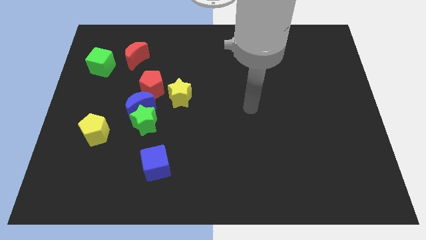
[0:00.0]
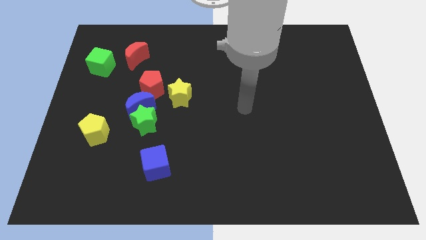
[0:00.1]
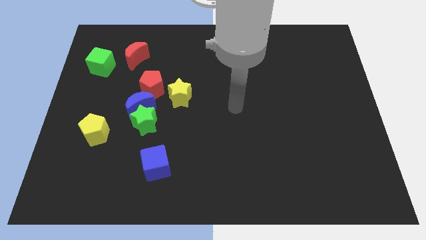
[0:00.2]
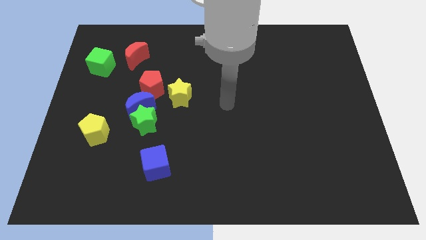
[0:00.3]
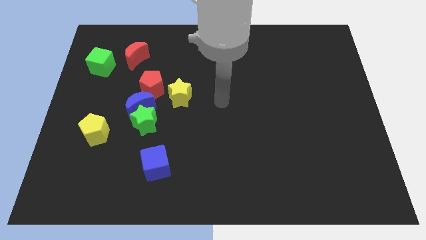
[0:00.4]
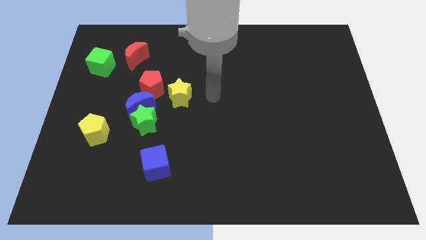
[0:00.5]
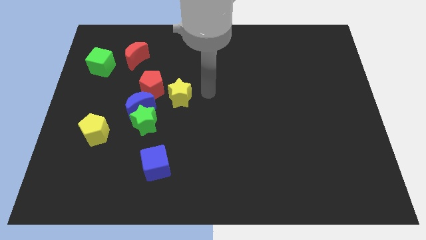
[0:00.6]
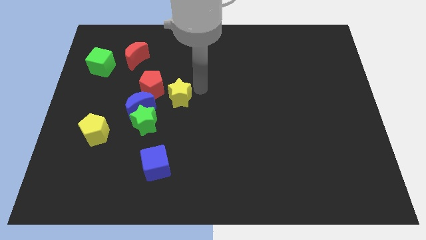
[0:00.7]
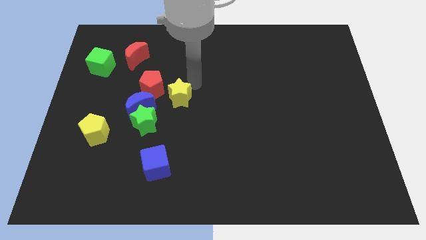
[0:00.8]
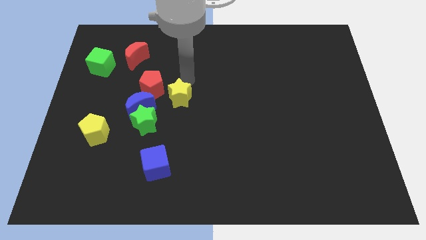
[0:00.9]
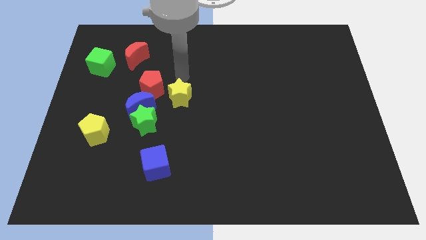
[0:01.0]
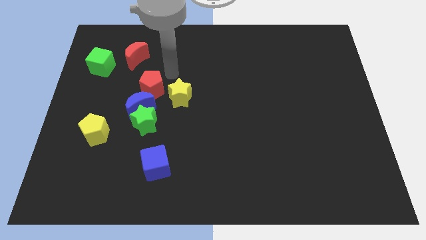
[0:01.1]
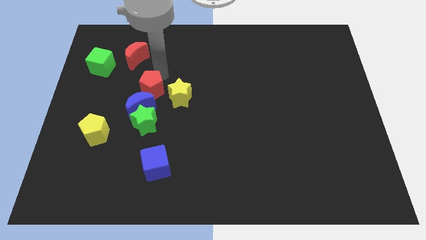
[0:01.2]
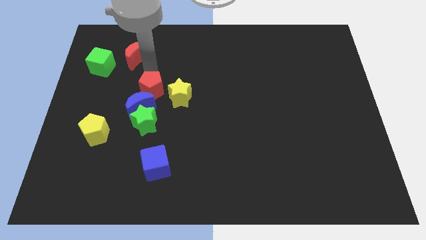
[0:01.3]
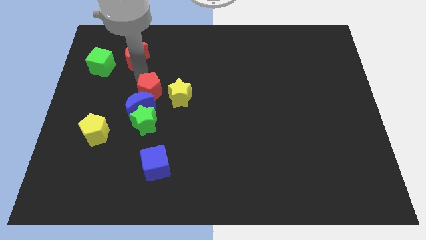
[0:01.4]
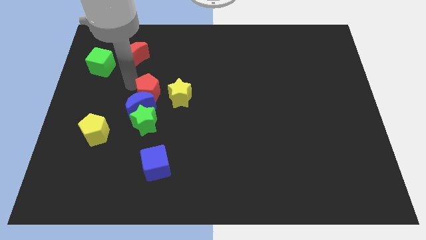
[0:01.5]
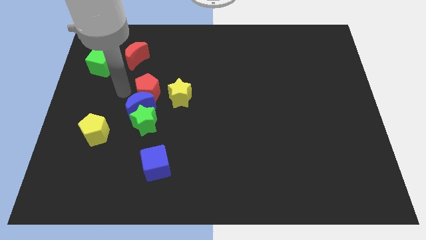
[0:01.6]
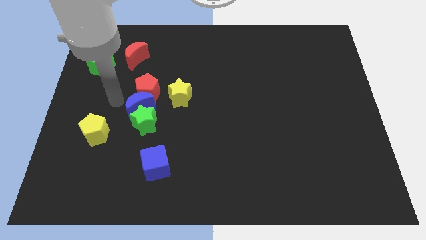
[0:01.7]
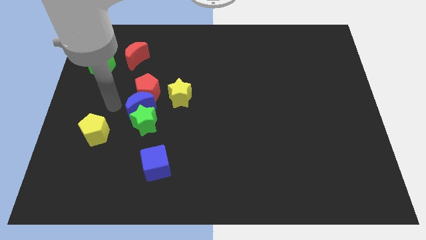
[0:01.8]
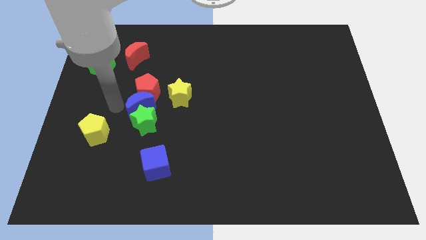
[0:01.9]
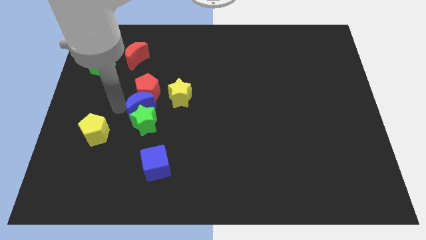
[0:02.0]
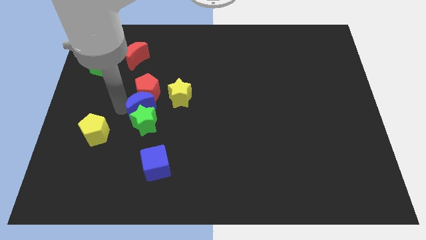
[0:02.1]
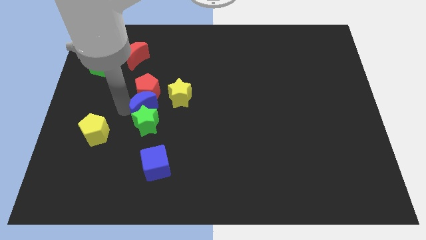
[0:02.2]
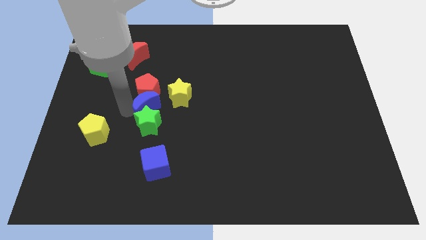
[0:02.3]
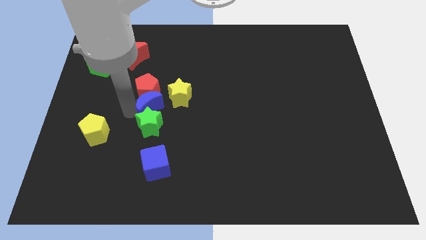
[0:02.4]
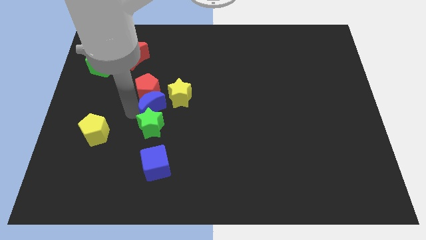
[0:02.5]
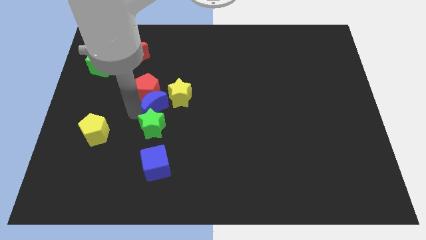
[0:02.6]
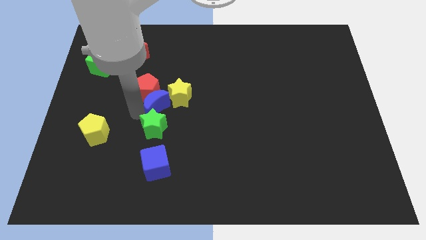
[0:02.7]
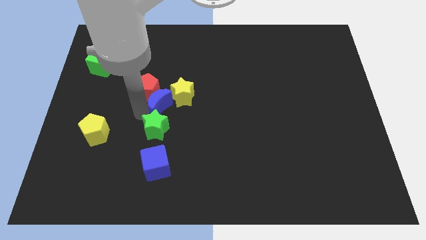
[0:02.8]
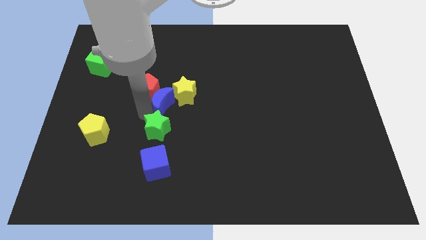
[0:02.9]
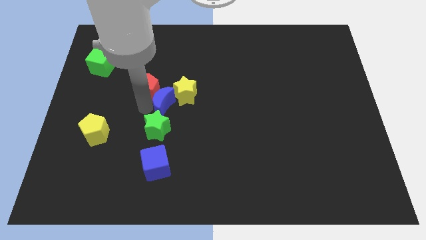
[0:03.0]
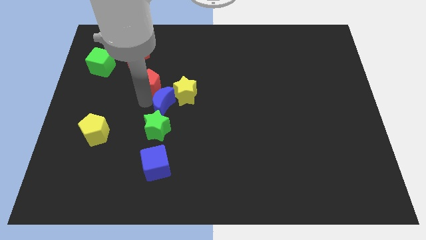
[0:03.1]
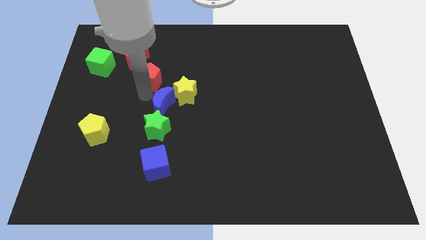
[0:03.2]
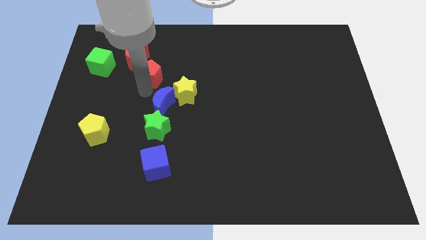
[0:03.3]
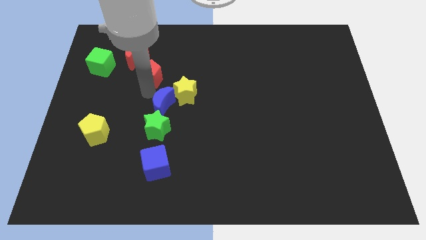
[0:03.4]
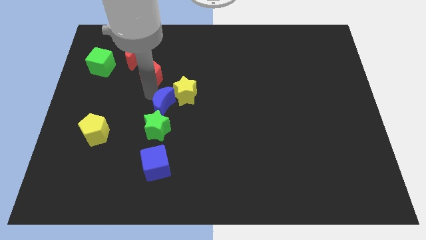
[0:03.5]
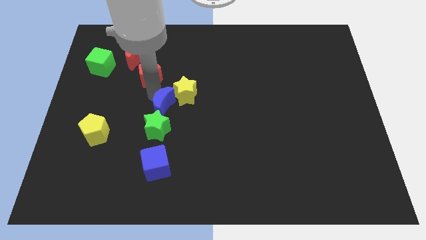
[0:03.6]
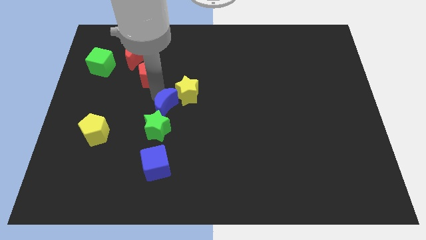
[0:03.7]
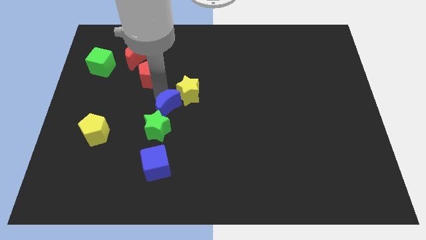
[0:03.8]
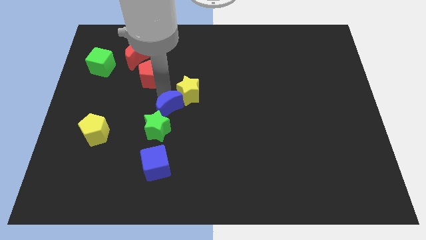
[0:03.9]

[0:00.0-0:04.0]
slide the blue moon a little bit to the right

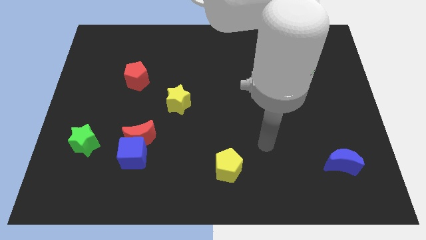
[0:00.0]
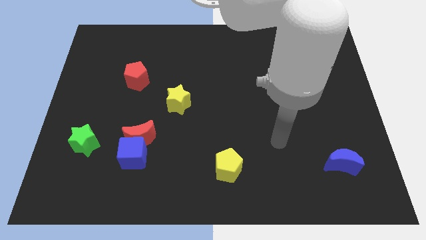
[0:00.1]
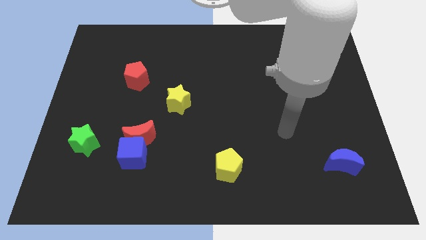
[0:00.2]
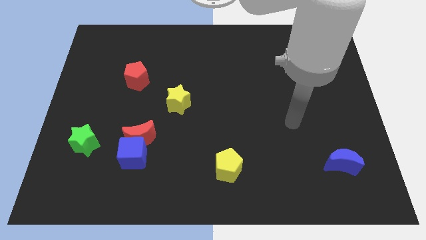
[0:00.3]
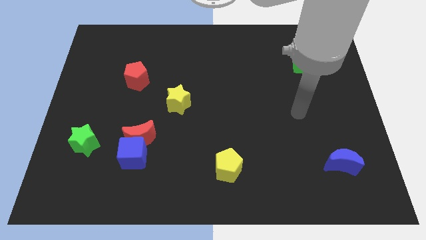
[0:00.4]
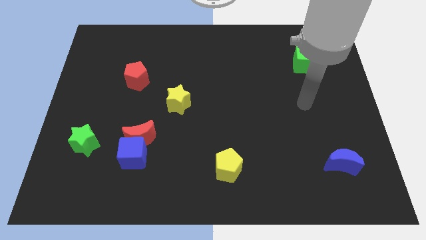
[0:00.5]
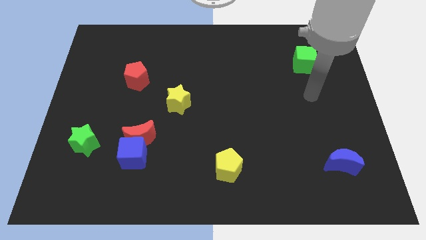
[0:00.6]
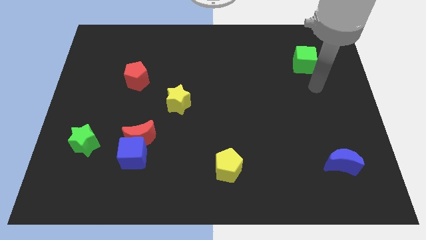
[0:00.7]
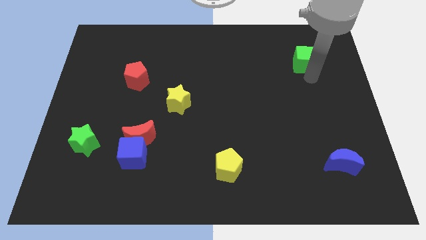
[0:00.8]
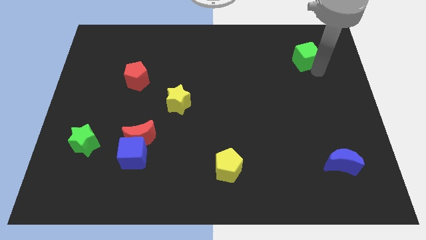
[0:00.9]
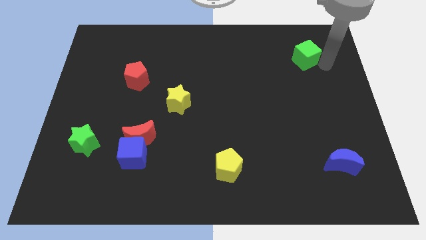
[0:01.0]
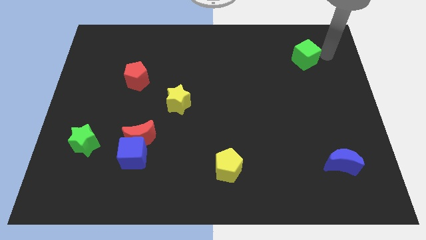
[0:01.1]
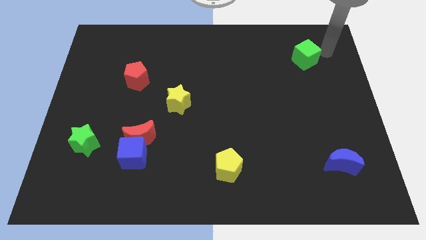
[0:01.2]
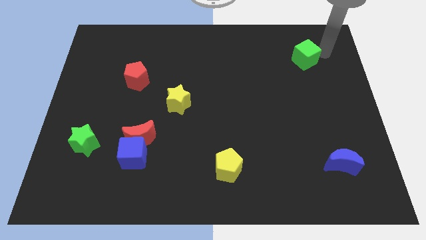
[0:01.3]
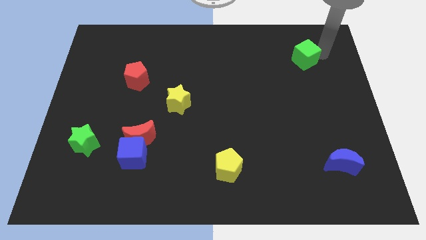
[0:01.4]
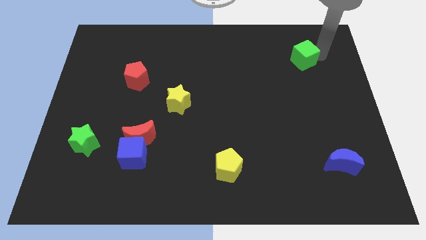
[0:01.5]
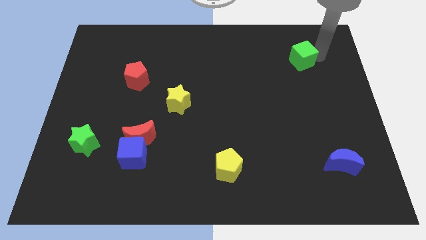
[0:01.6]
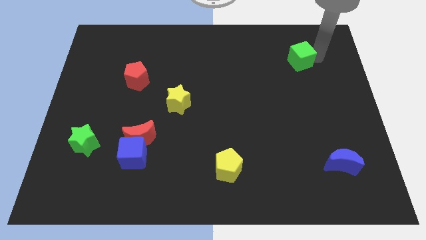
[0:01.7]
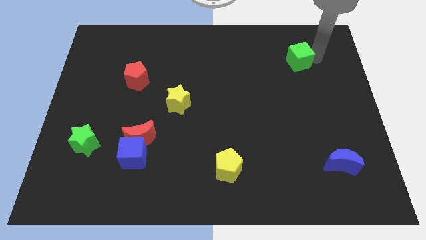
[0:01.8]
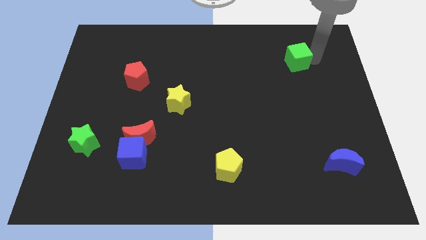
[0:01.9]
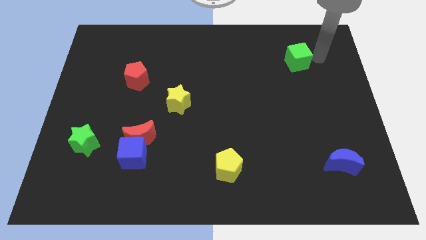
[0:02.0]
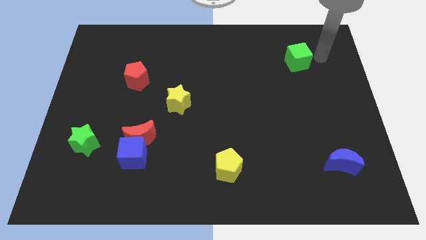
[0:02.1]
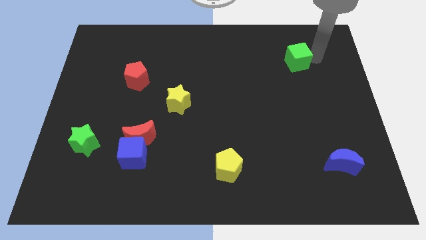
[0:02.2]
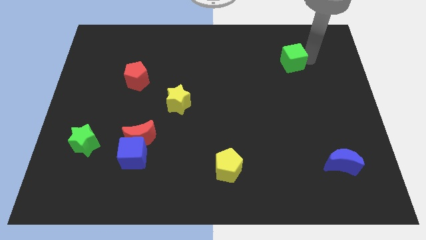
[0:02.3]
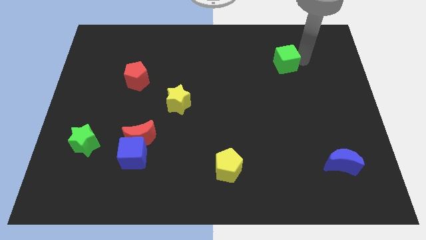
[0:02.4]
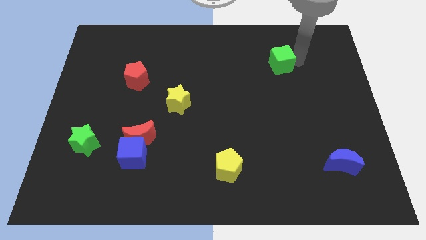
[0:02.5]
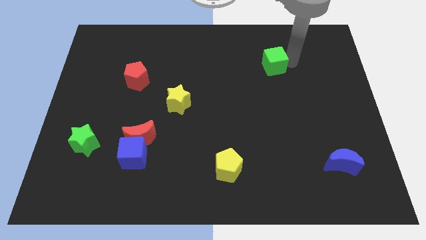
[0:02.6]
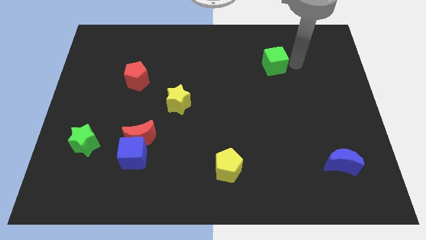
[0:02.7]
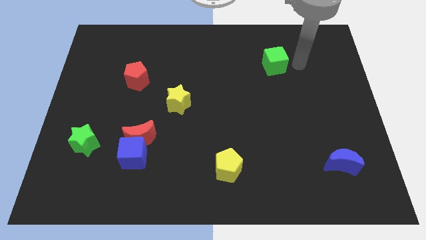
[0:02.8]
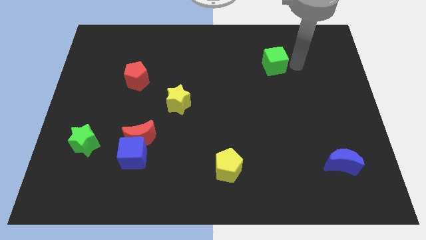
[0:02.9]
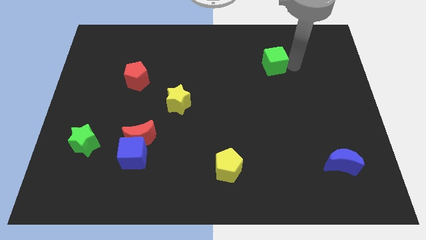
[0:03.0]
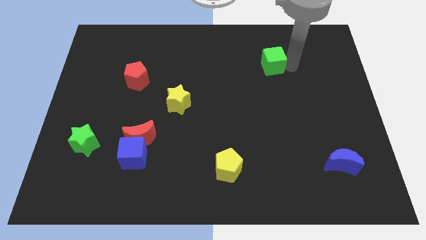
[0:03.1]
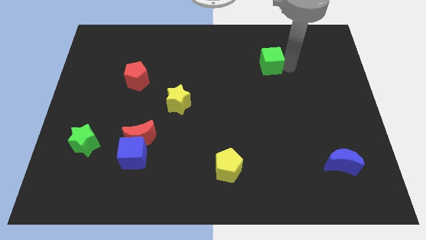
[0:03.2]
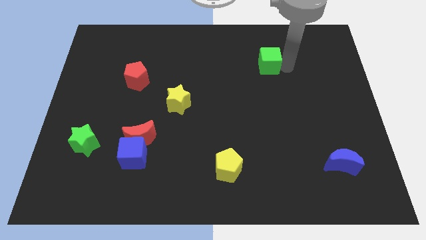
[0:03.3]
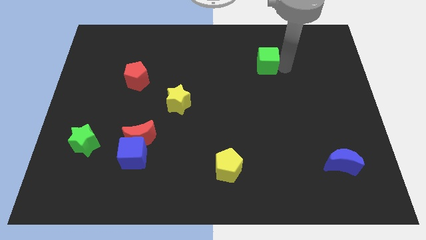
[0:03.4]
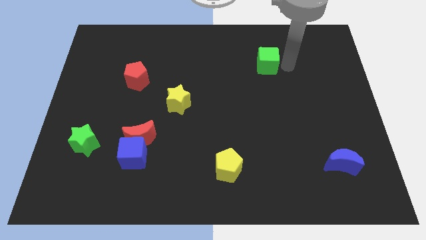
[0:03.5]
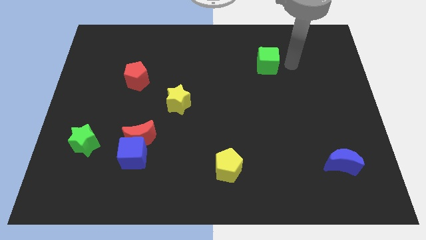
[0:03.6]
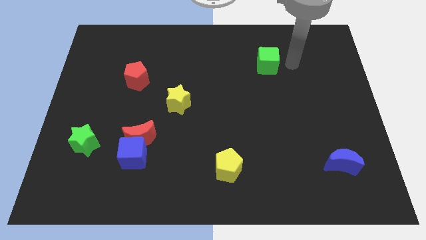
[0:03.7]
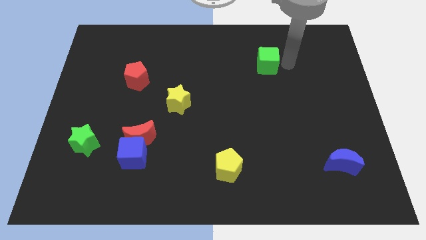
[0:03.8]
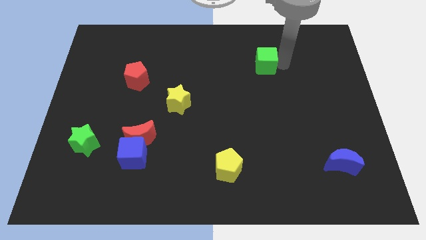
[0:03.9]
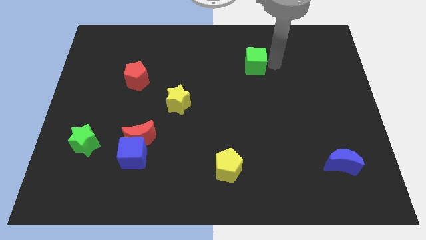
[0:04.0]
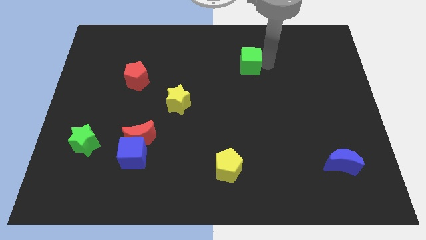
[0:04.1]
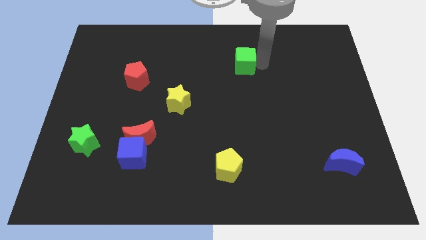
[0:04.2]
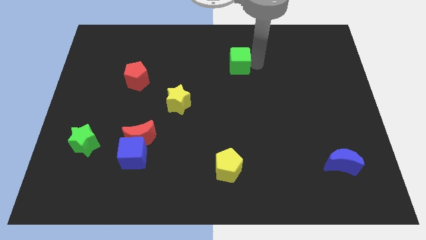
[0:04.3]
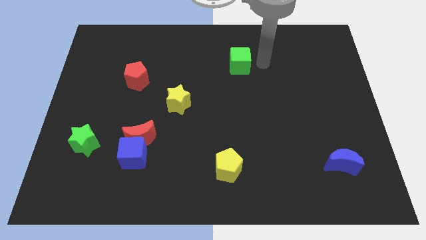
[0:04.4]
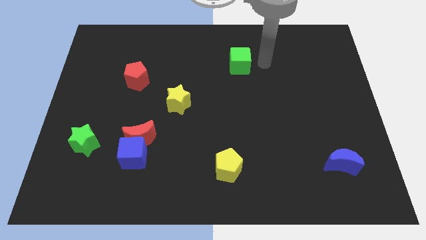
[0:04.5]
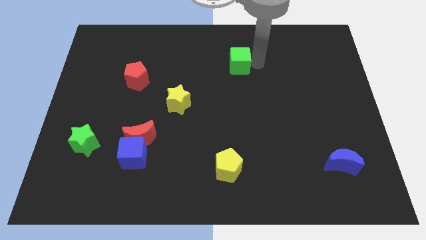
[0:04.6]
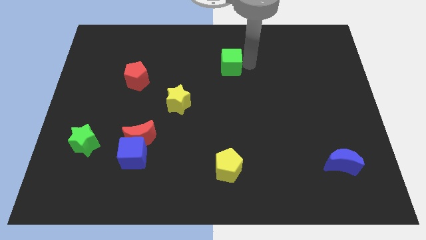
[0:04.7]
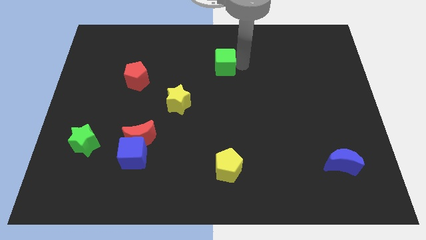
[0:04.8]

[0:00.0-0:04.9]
slide the green cube left
